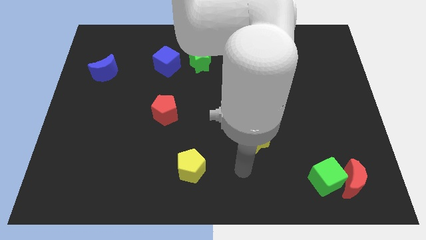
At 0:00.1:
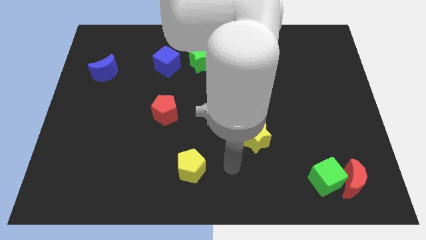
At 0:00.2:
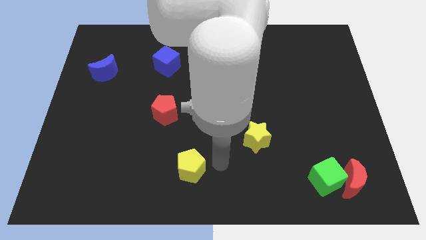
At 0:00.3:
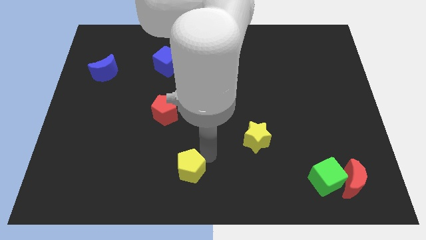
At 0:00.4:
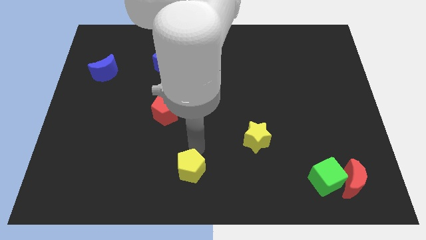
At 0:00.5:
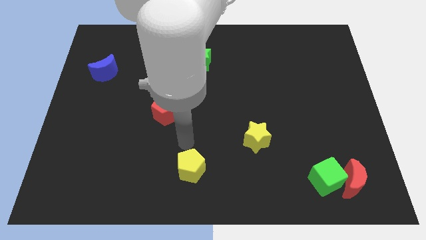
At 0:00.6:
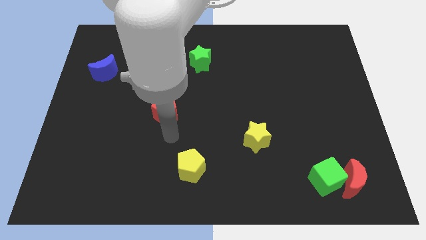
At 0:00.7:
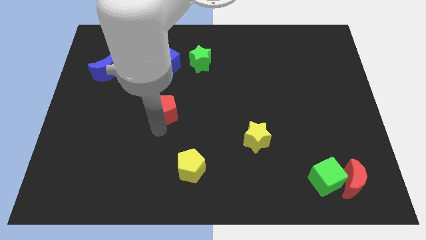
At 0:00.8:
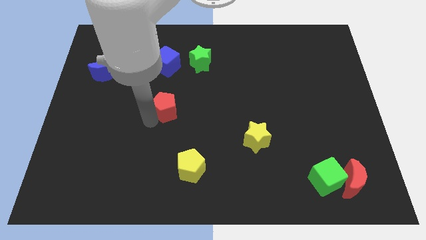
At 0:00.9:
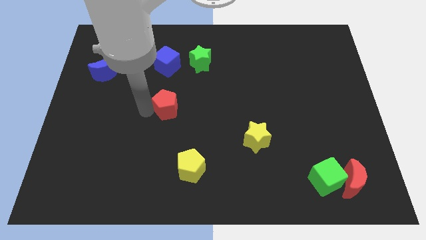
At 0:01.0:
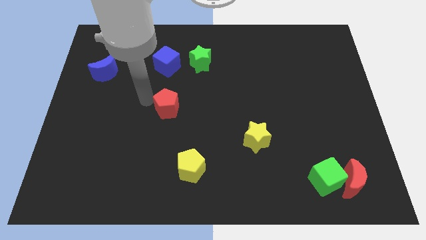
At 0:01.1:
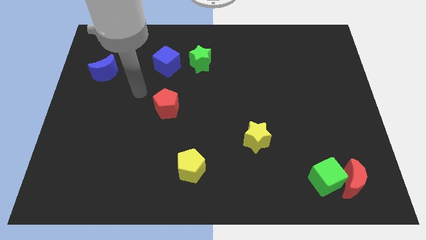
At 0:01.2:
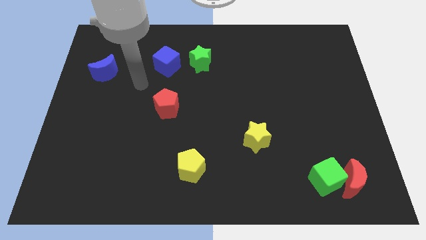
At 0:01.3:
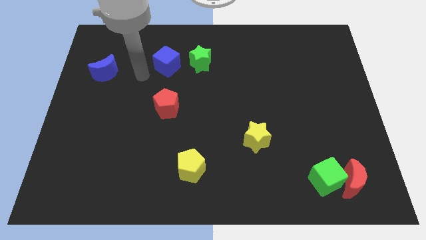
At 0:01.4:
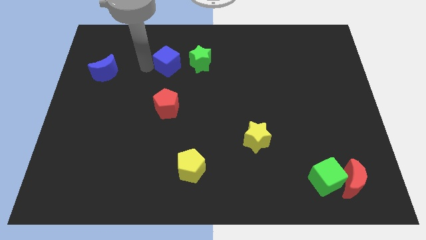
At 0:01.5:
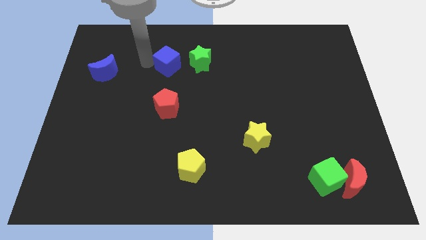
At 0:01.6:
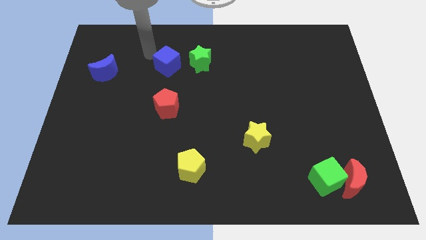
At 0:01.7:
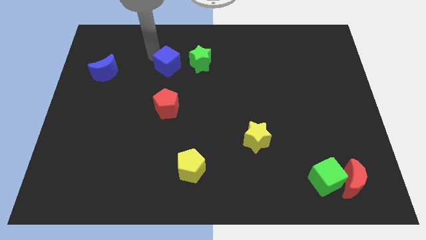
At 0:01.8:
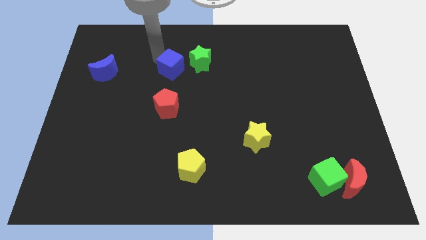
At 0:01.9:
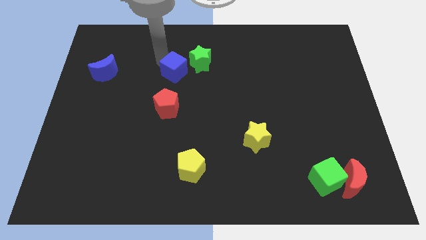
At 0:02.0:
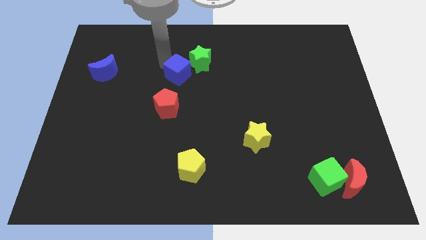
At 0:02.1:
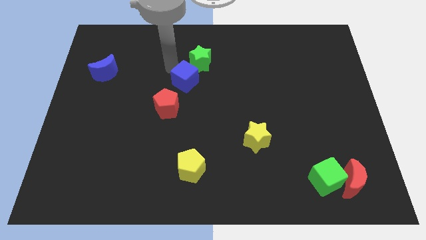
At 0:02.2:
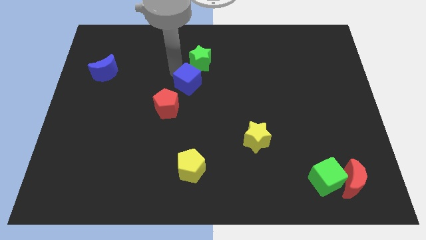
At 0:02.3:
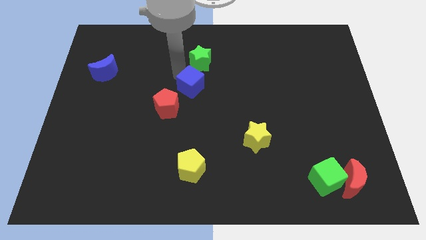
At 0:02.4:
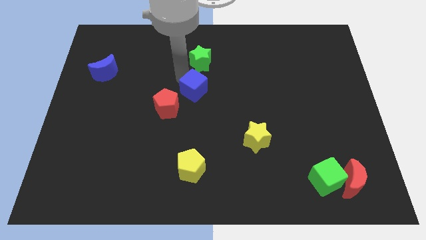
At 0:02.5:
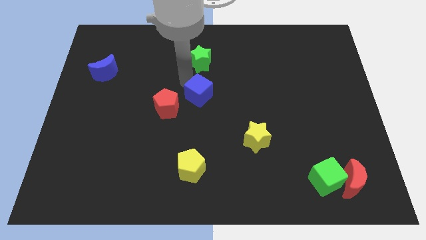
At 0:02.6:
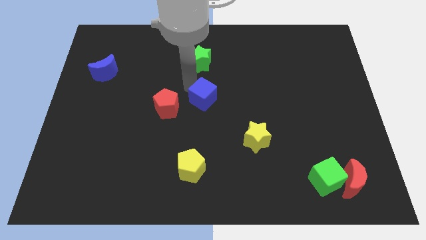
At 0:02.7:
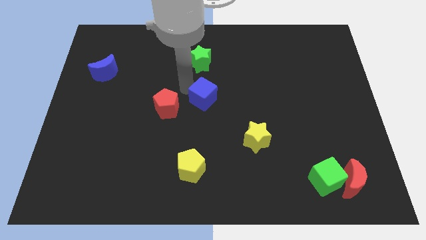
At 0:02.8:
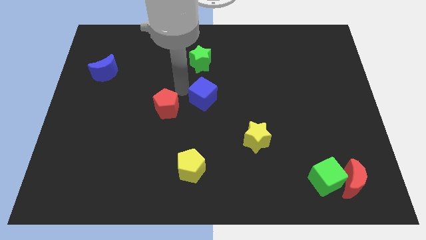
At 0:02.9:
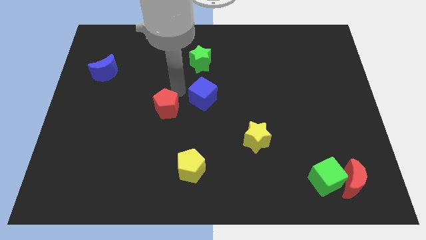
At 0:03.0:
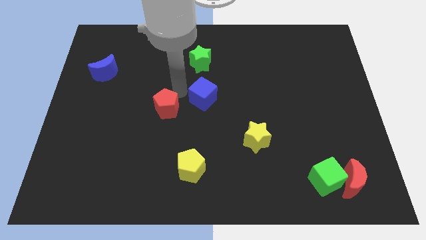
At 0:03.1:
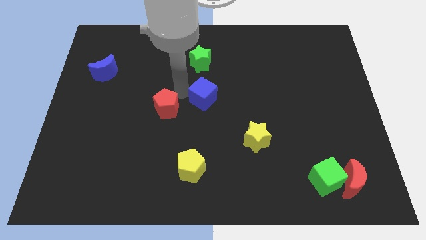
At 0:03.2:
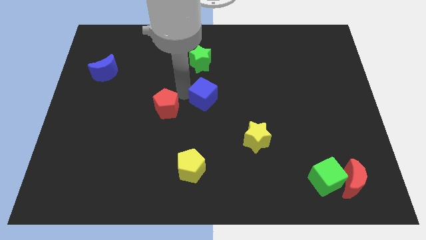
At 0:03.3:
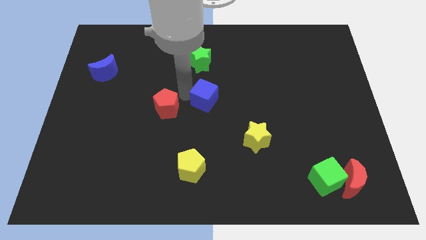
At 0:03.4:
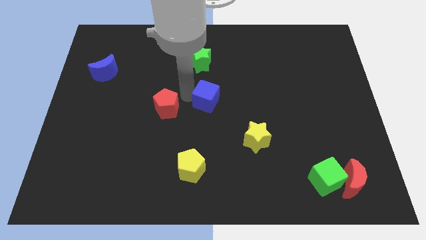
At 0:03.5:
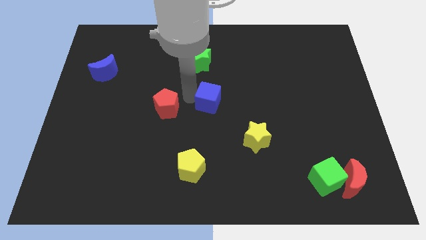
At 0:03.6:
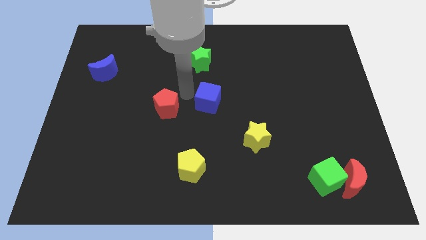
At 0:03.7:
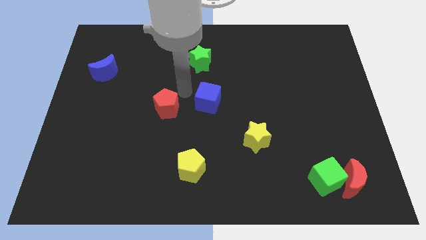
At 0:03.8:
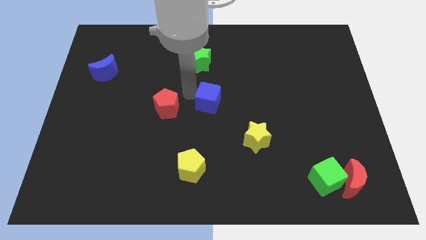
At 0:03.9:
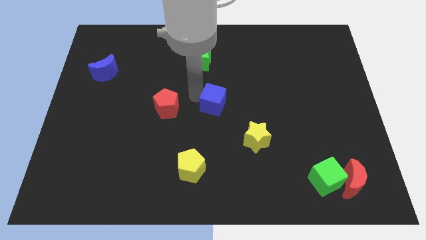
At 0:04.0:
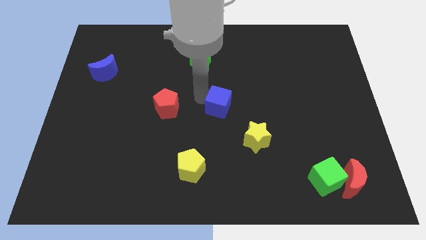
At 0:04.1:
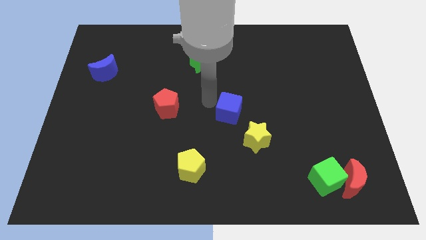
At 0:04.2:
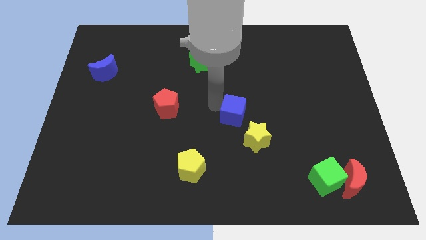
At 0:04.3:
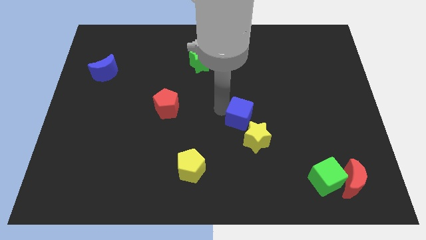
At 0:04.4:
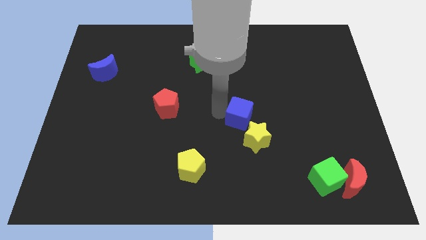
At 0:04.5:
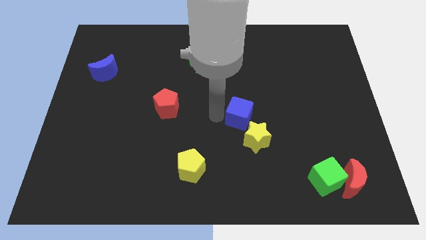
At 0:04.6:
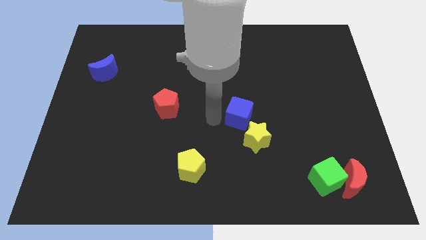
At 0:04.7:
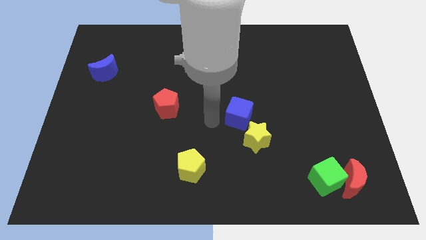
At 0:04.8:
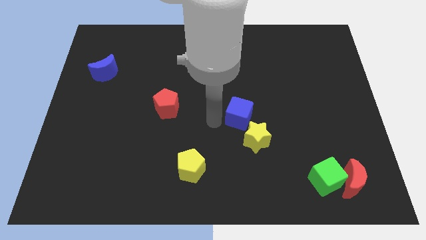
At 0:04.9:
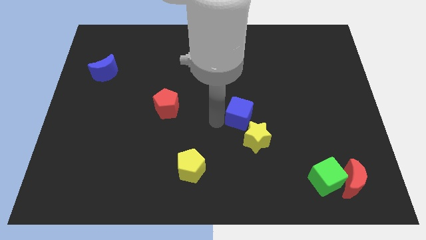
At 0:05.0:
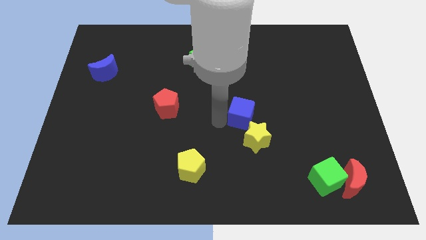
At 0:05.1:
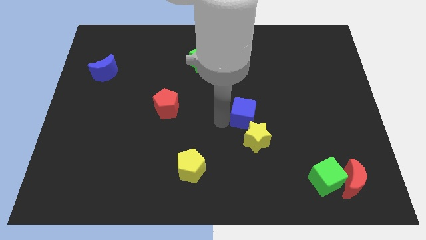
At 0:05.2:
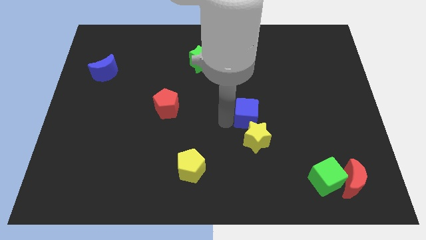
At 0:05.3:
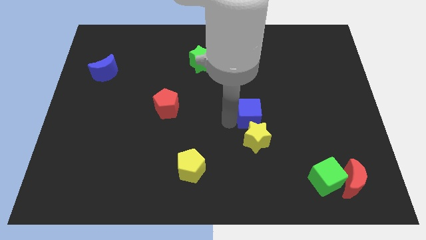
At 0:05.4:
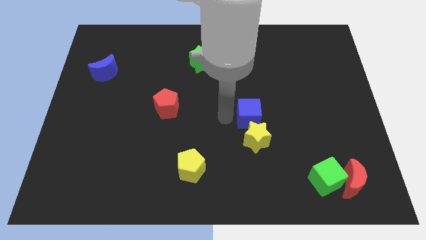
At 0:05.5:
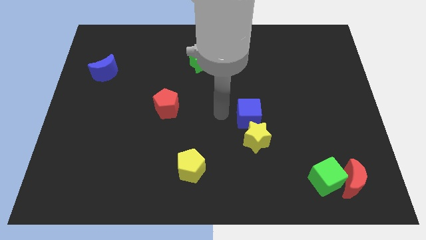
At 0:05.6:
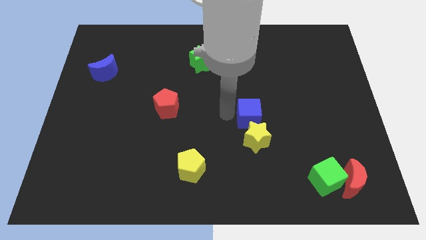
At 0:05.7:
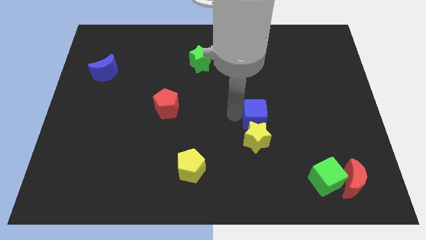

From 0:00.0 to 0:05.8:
put the blue cube to the top right side of the yellow star

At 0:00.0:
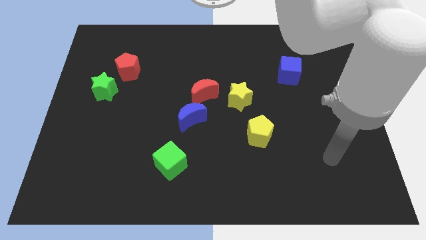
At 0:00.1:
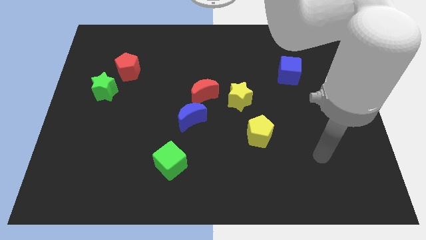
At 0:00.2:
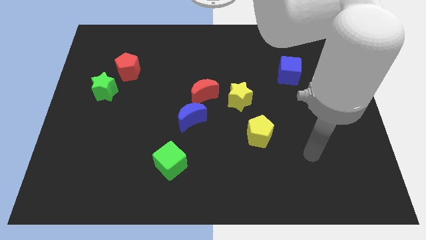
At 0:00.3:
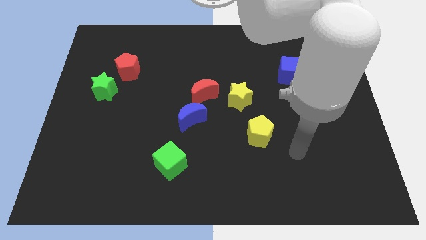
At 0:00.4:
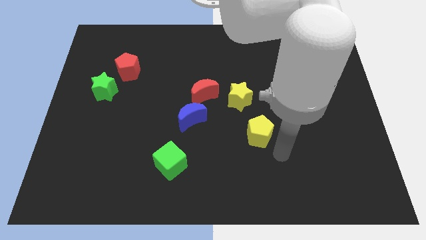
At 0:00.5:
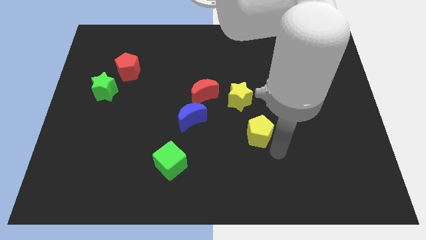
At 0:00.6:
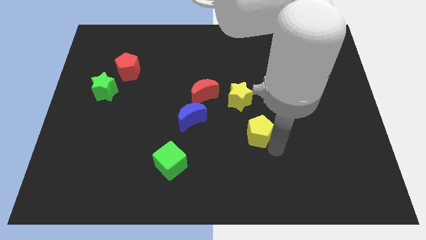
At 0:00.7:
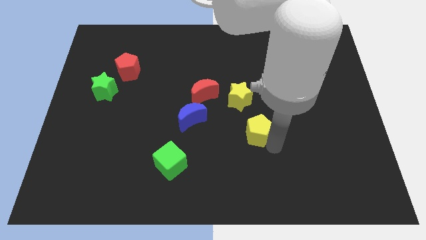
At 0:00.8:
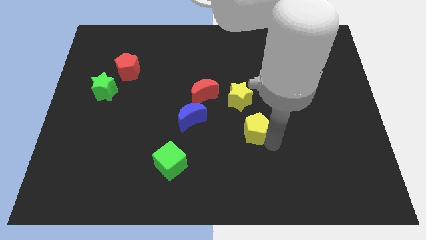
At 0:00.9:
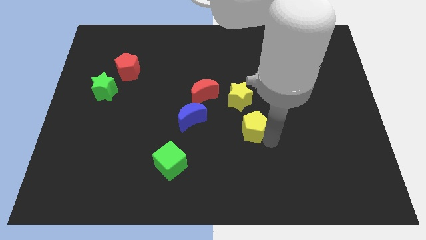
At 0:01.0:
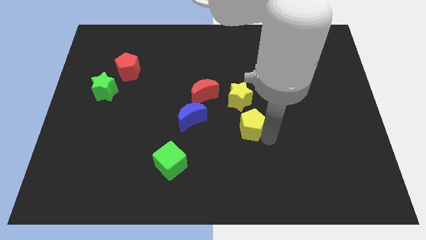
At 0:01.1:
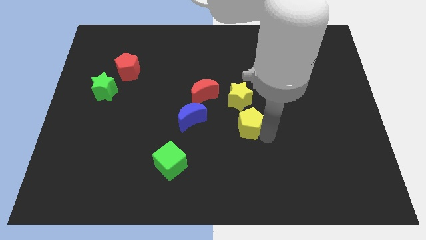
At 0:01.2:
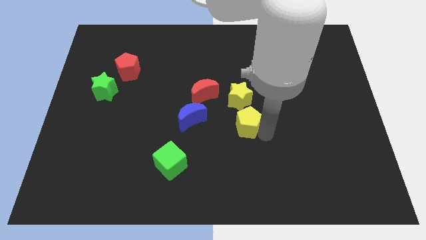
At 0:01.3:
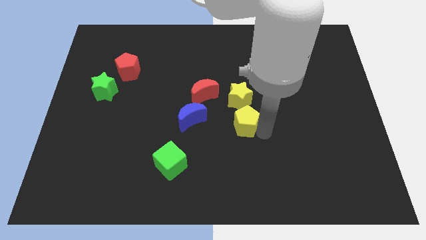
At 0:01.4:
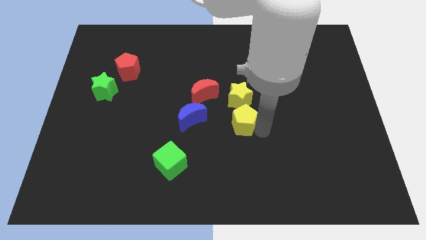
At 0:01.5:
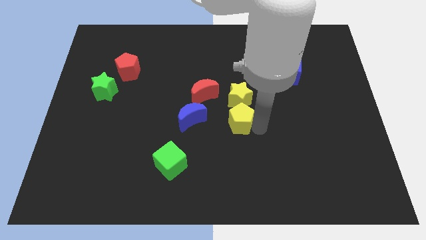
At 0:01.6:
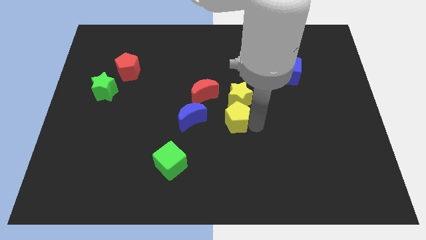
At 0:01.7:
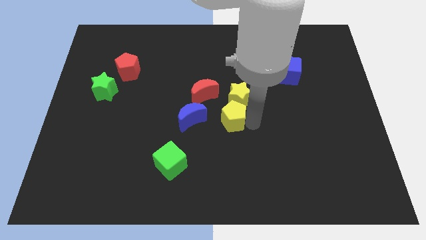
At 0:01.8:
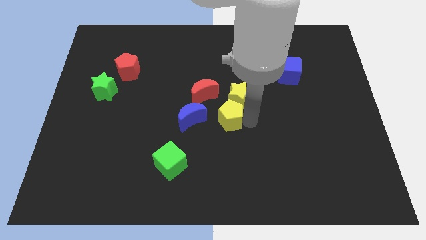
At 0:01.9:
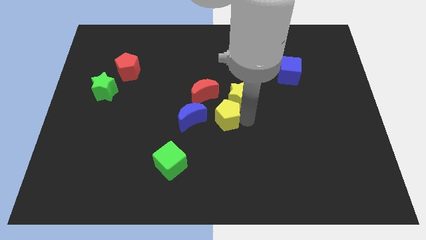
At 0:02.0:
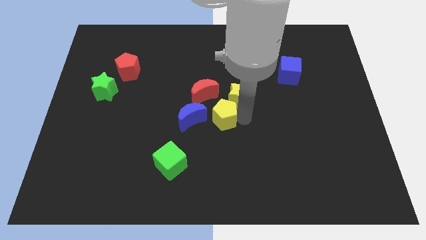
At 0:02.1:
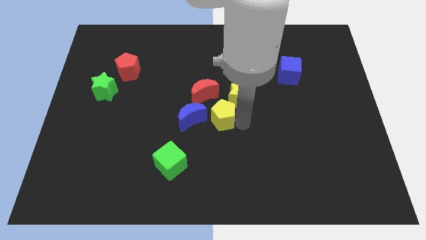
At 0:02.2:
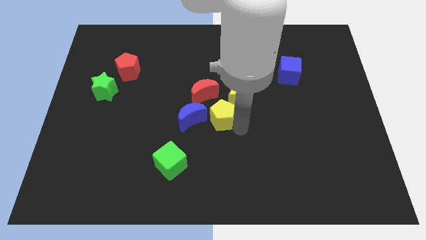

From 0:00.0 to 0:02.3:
put the yellow pentagon to the top right side of the blue moon
